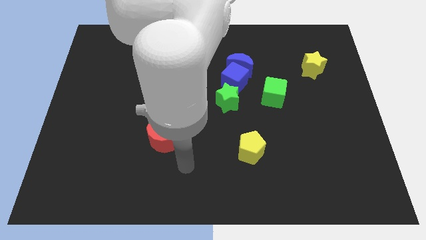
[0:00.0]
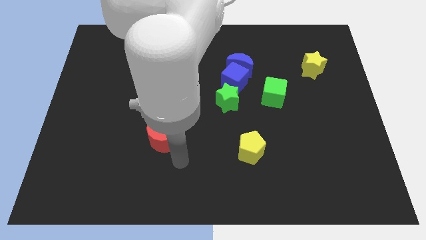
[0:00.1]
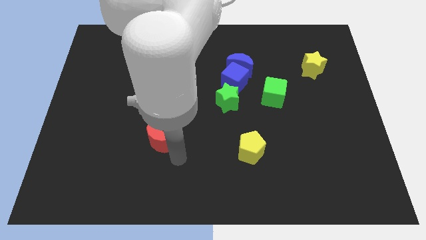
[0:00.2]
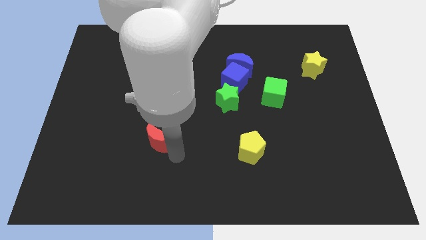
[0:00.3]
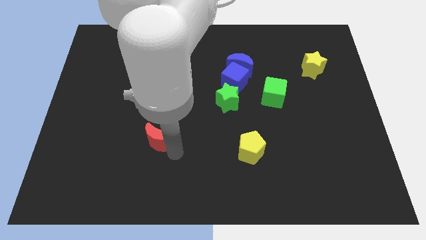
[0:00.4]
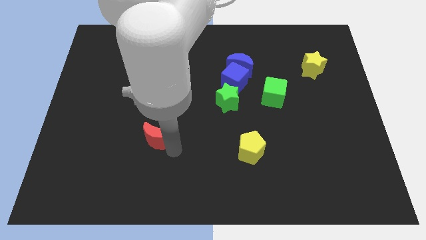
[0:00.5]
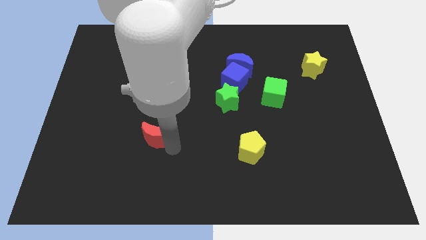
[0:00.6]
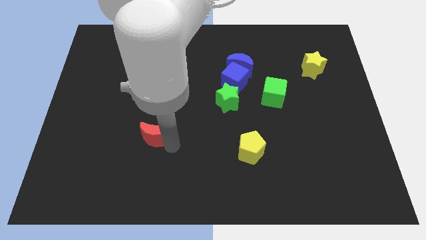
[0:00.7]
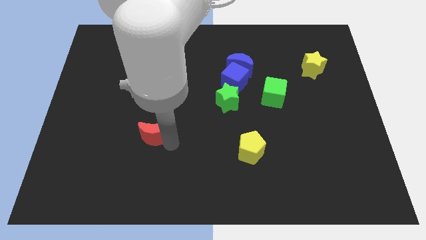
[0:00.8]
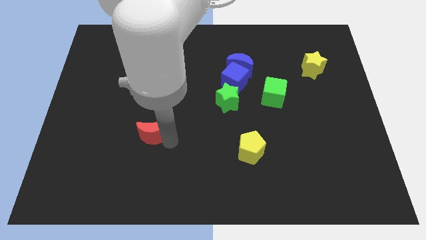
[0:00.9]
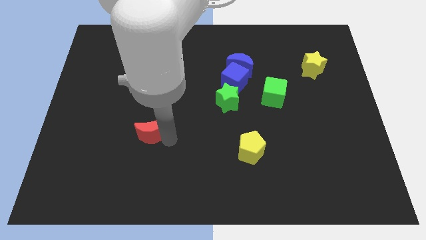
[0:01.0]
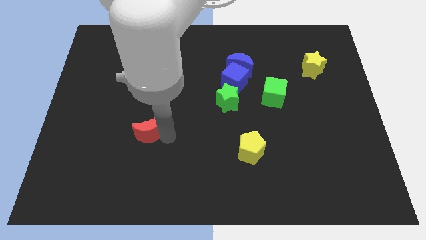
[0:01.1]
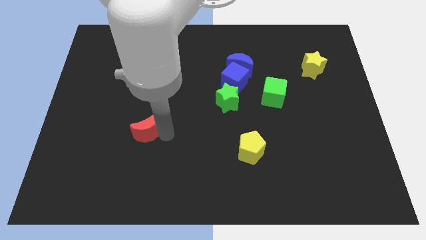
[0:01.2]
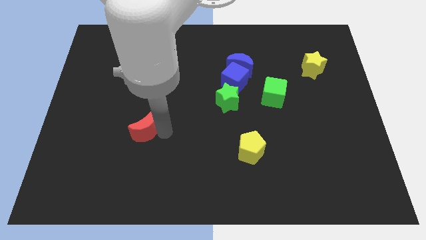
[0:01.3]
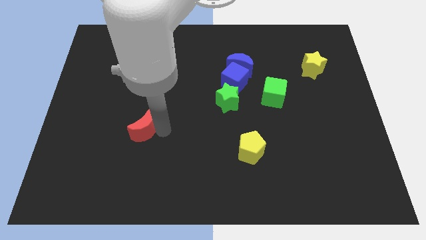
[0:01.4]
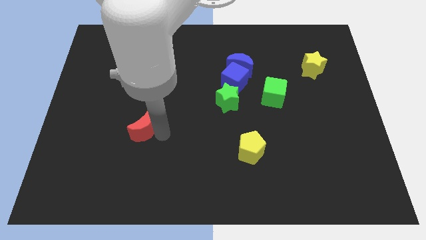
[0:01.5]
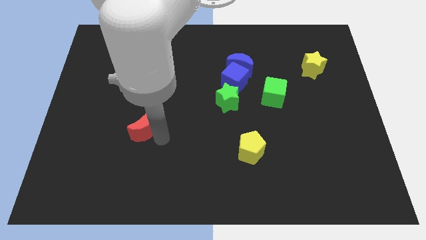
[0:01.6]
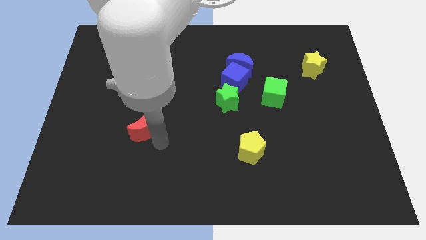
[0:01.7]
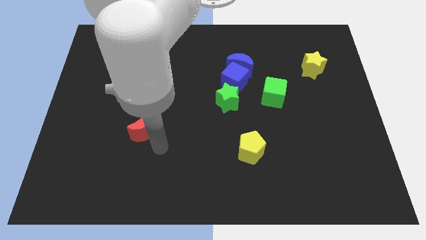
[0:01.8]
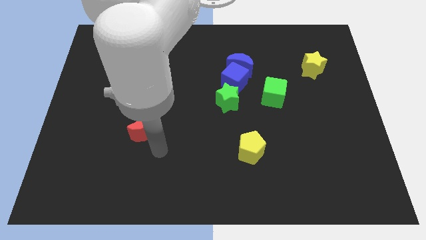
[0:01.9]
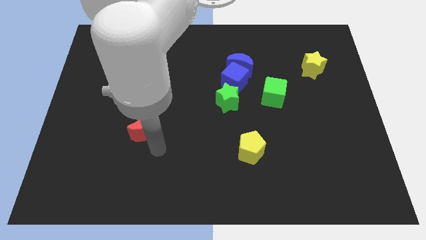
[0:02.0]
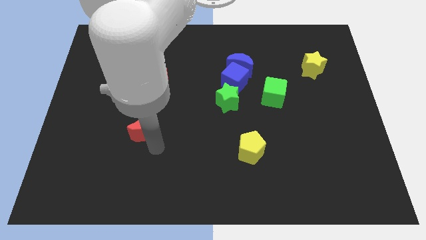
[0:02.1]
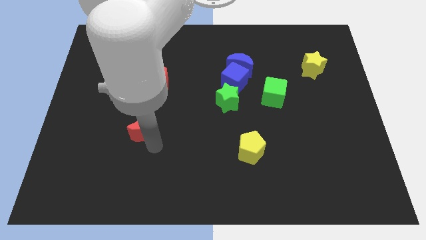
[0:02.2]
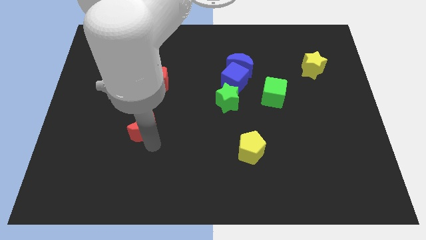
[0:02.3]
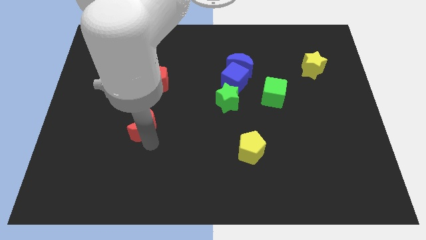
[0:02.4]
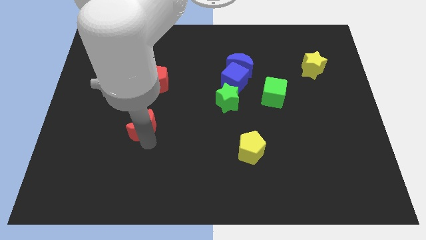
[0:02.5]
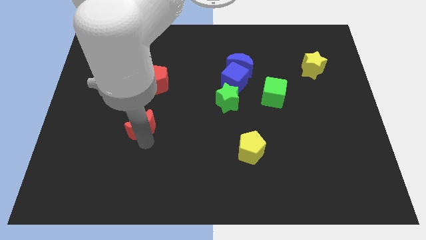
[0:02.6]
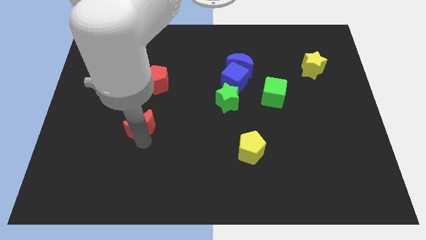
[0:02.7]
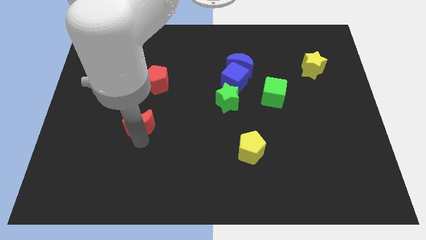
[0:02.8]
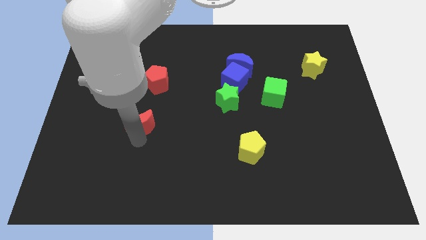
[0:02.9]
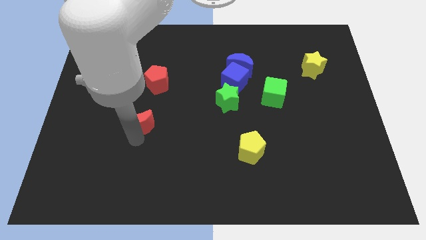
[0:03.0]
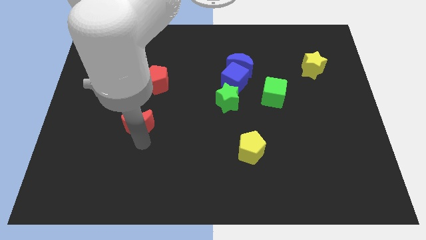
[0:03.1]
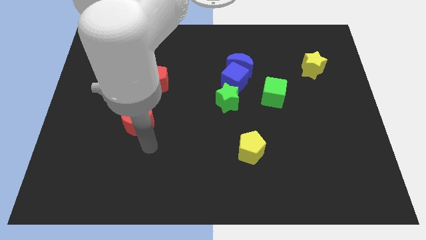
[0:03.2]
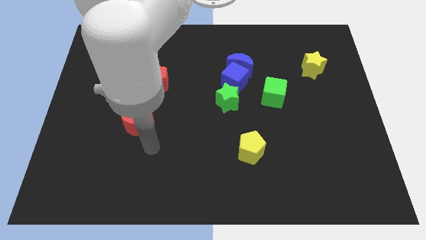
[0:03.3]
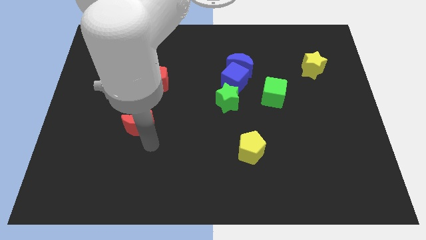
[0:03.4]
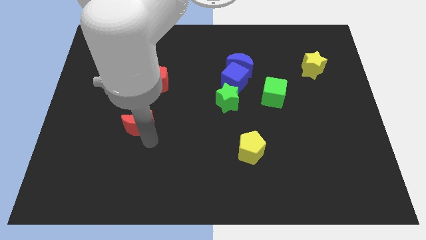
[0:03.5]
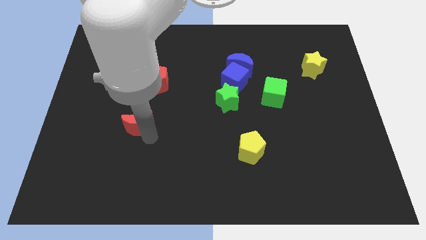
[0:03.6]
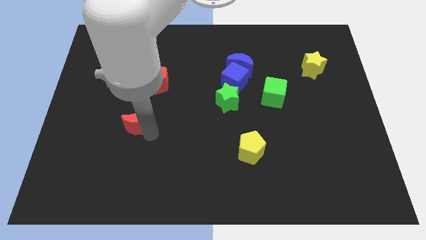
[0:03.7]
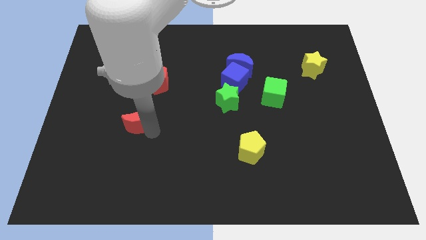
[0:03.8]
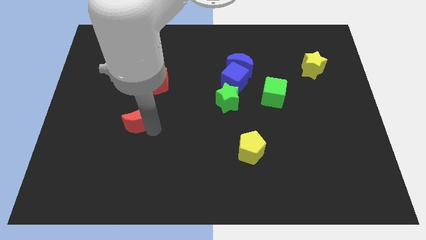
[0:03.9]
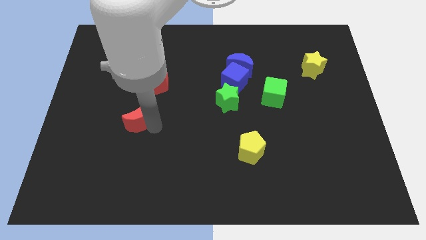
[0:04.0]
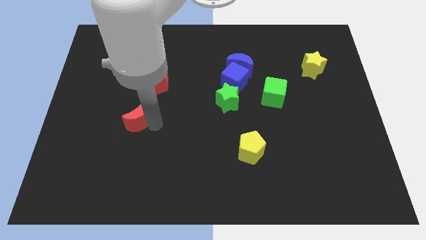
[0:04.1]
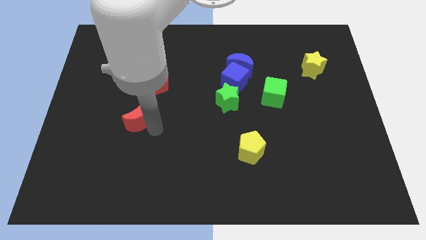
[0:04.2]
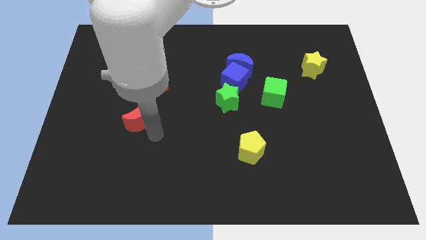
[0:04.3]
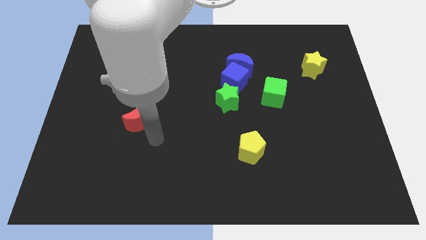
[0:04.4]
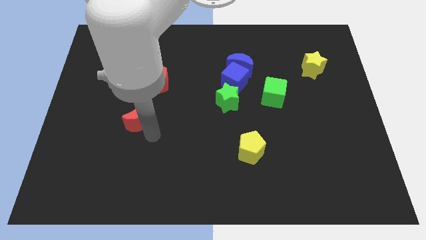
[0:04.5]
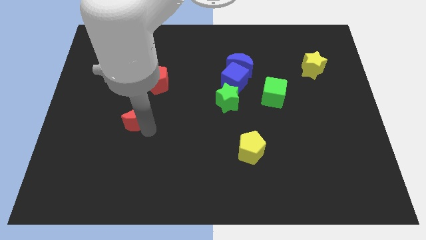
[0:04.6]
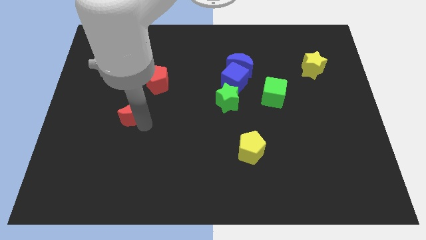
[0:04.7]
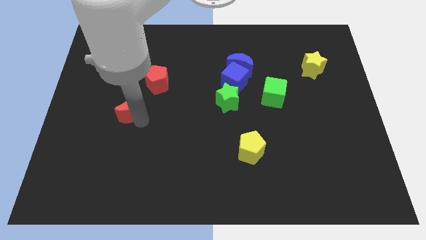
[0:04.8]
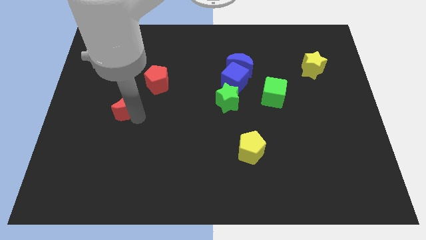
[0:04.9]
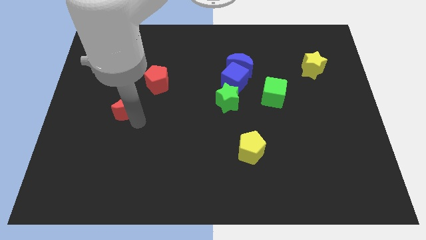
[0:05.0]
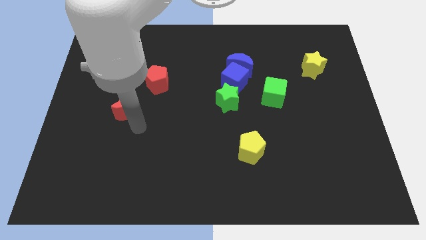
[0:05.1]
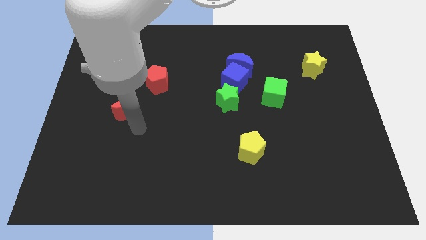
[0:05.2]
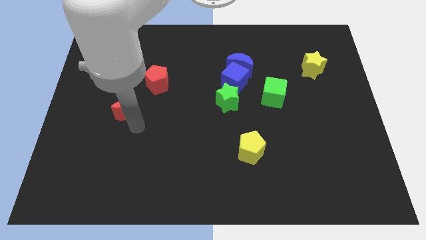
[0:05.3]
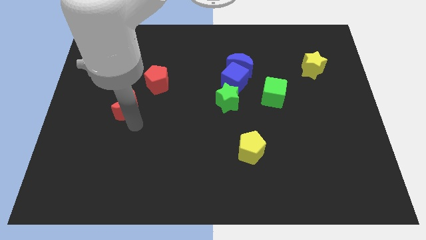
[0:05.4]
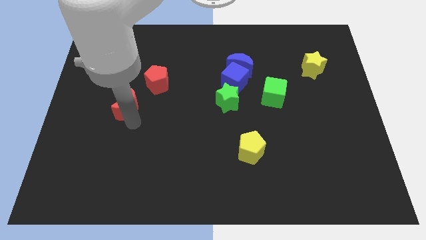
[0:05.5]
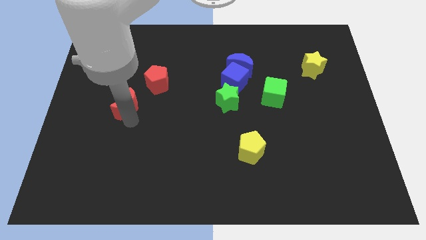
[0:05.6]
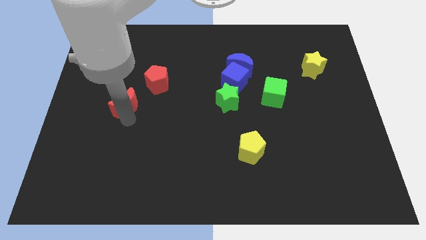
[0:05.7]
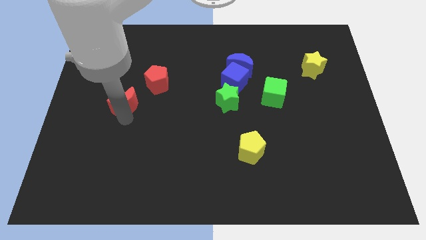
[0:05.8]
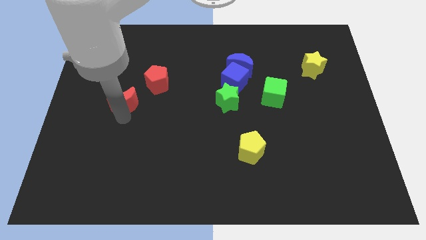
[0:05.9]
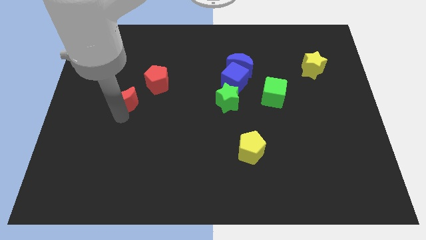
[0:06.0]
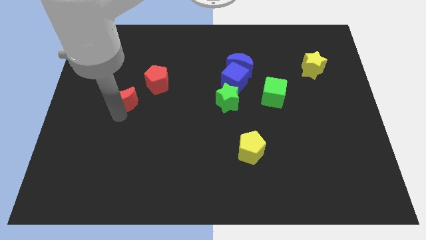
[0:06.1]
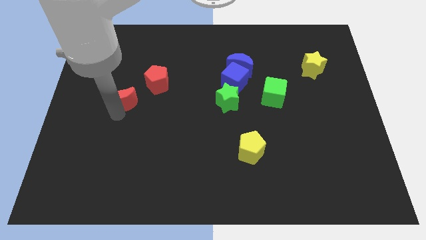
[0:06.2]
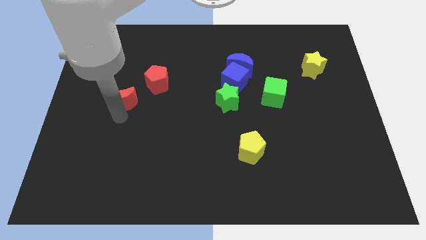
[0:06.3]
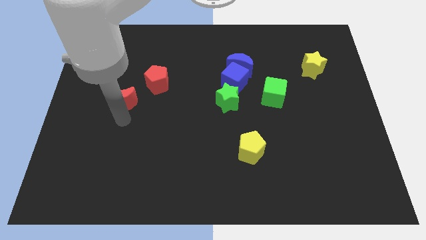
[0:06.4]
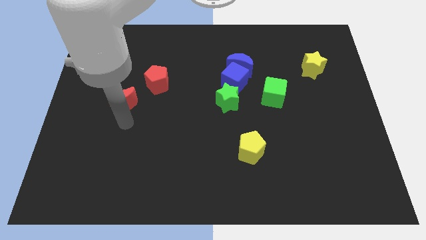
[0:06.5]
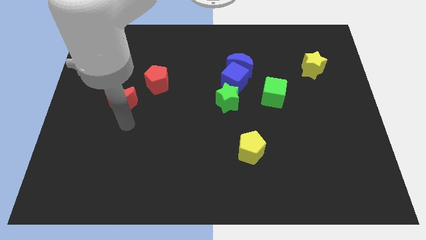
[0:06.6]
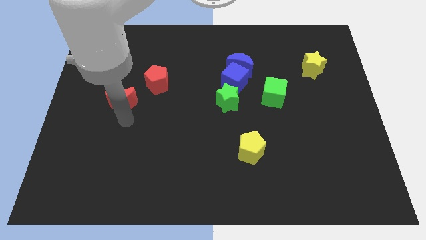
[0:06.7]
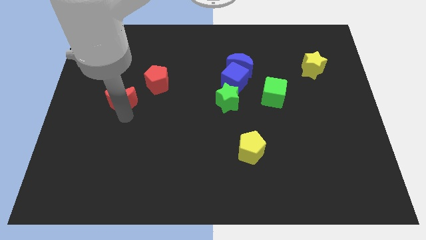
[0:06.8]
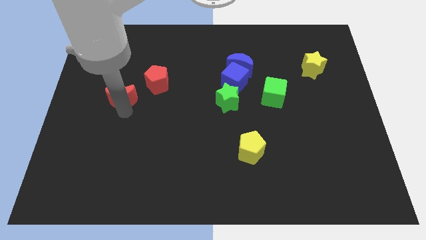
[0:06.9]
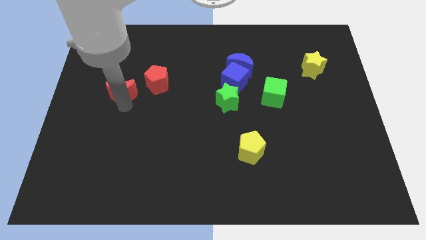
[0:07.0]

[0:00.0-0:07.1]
push the red moon just left of the red pentagon
